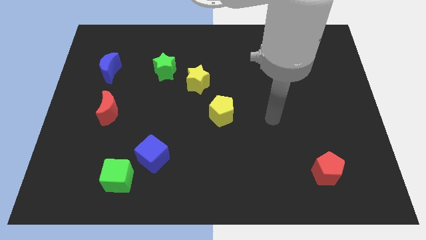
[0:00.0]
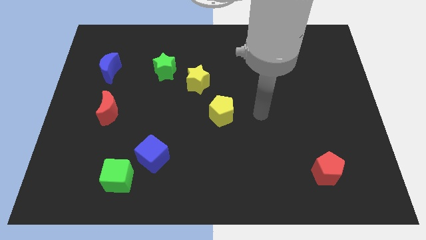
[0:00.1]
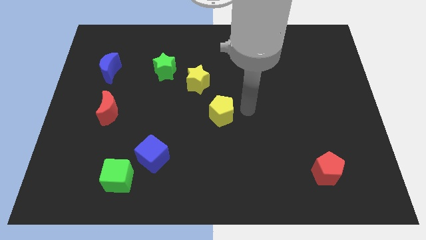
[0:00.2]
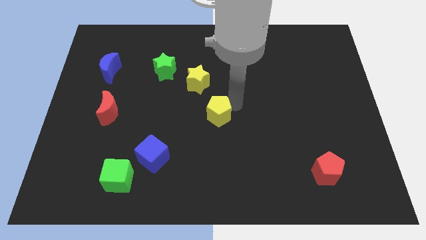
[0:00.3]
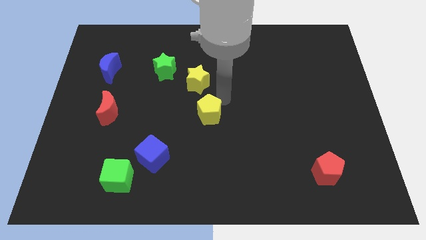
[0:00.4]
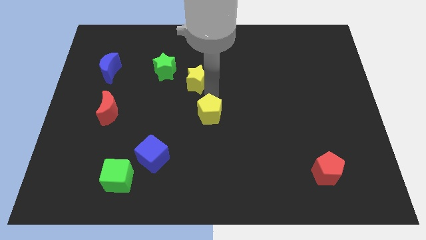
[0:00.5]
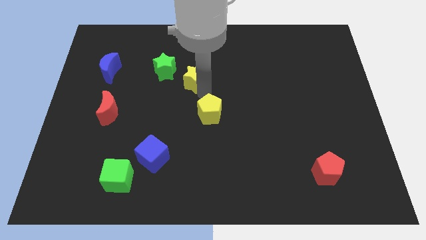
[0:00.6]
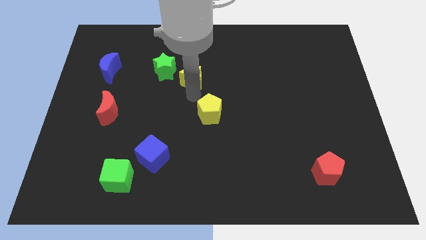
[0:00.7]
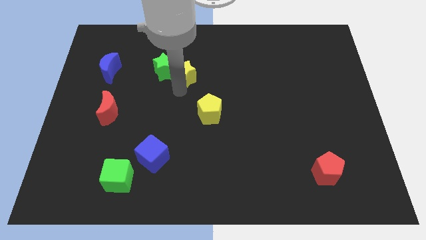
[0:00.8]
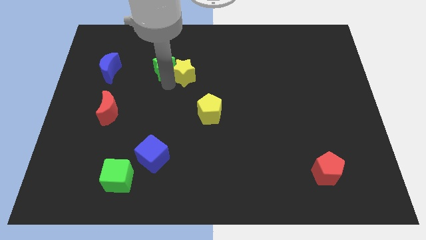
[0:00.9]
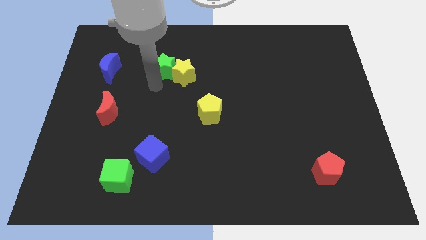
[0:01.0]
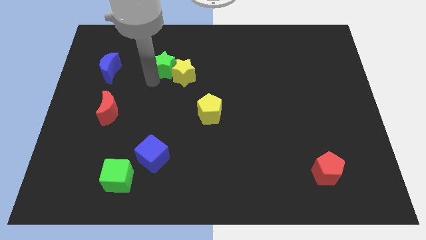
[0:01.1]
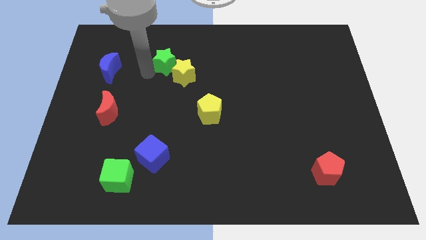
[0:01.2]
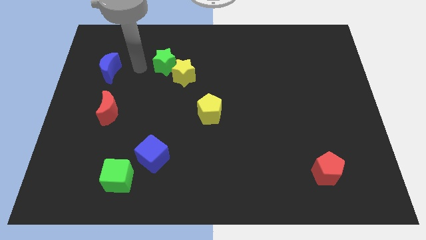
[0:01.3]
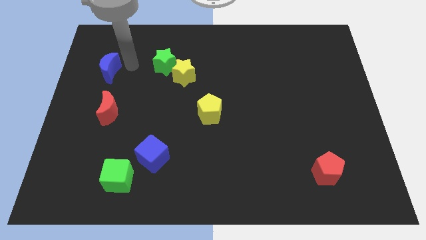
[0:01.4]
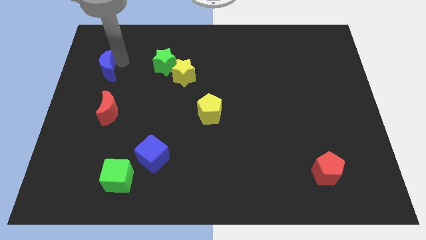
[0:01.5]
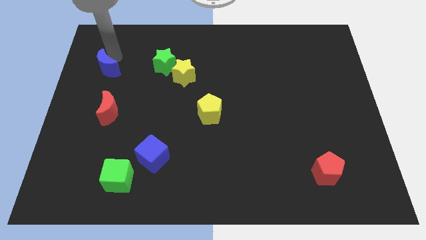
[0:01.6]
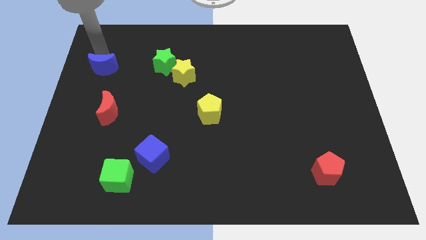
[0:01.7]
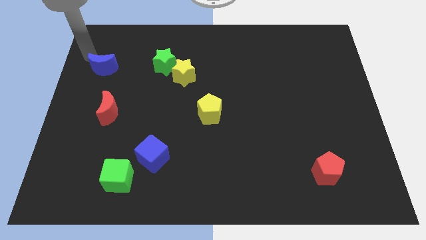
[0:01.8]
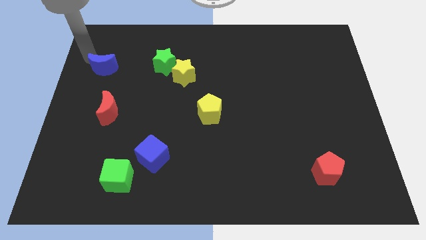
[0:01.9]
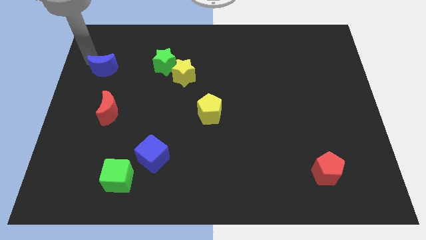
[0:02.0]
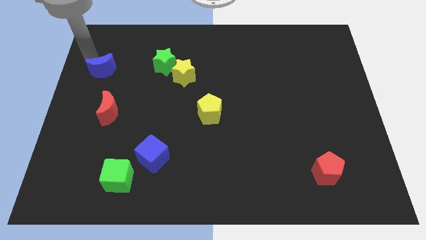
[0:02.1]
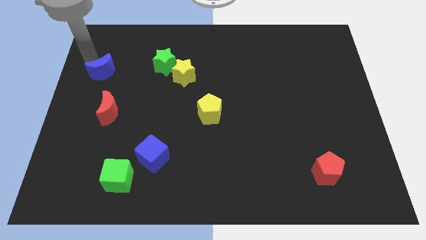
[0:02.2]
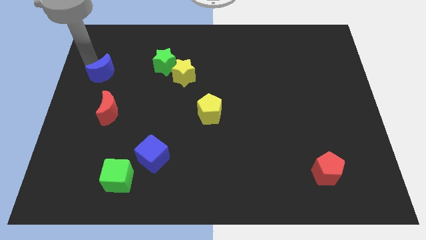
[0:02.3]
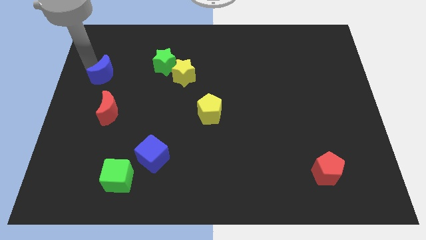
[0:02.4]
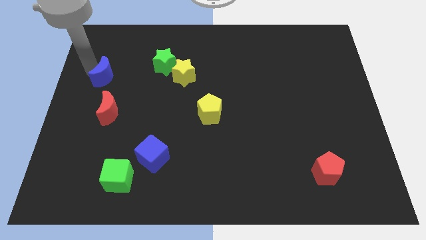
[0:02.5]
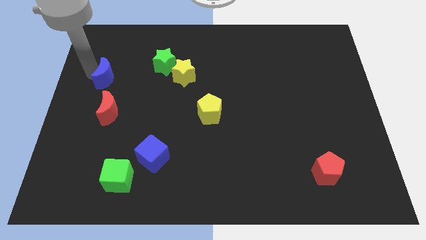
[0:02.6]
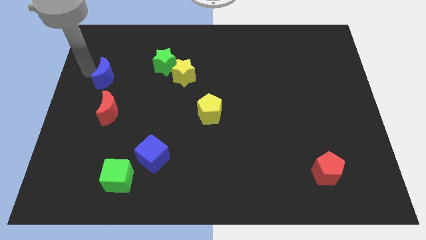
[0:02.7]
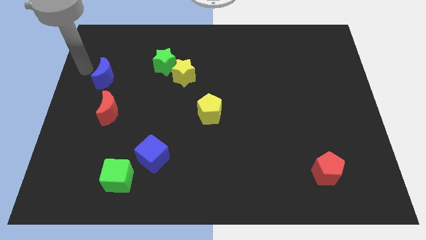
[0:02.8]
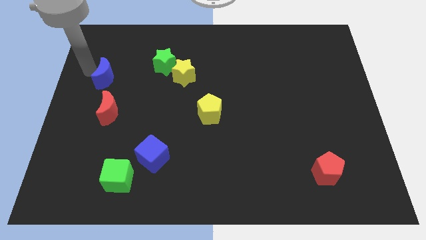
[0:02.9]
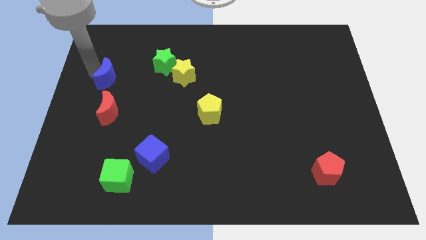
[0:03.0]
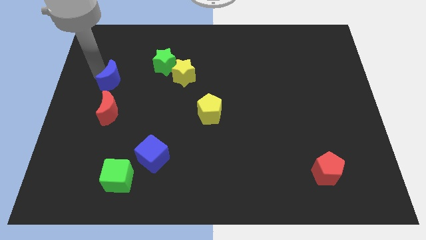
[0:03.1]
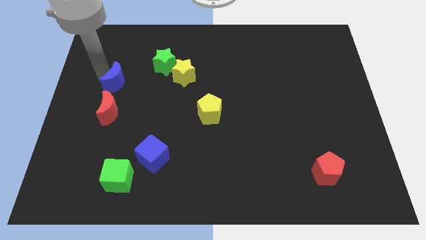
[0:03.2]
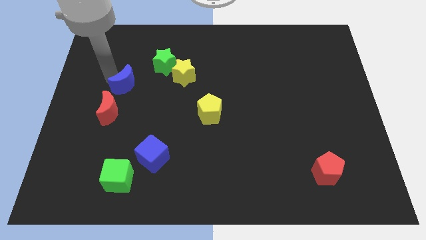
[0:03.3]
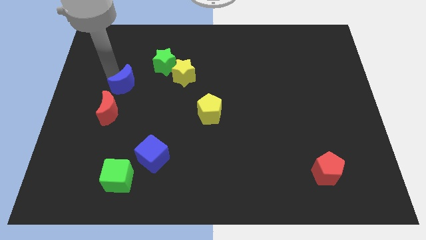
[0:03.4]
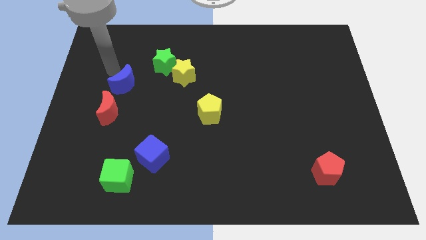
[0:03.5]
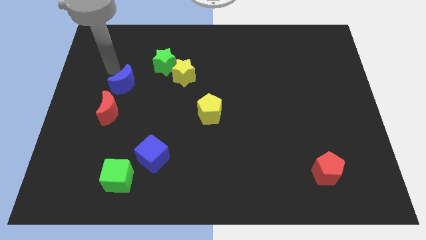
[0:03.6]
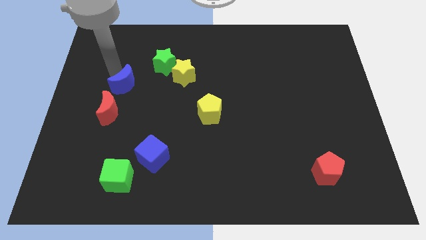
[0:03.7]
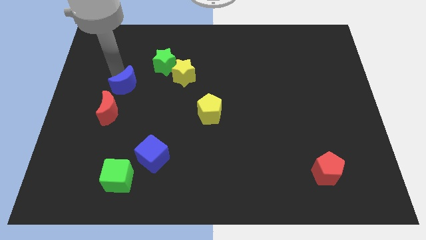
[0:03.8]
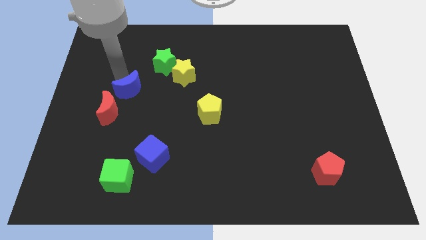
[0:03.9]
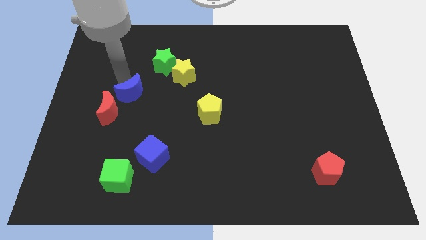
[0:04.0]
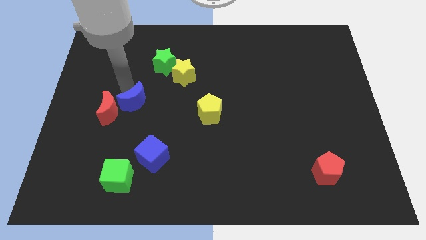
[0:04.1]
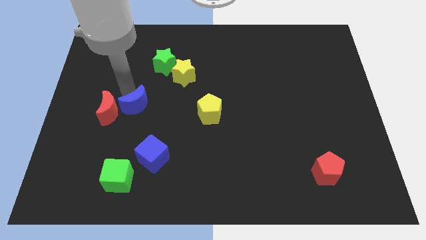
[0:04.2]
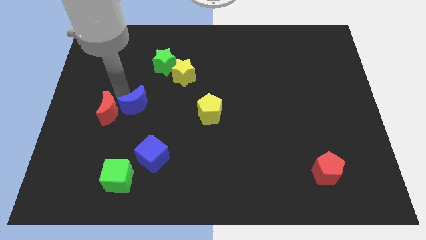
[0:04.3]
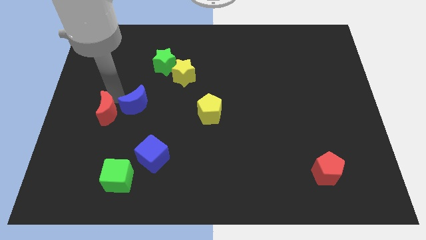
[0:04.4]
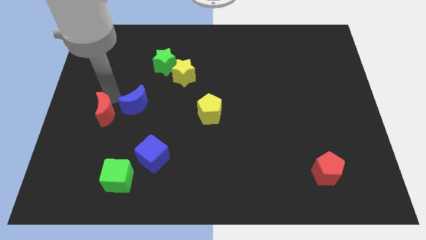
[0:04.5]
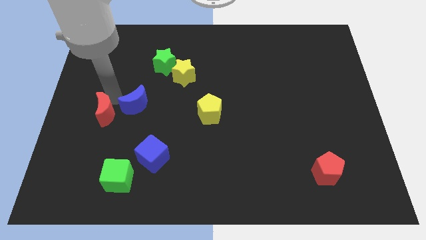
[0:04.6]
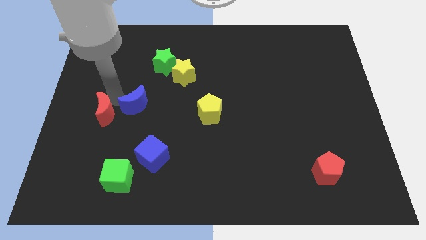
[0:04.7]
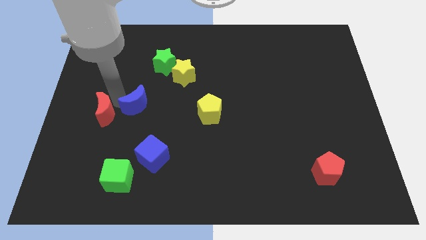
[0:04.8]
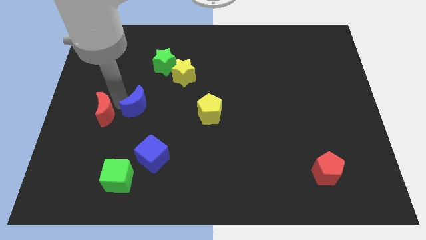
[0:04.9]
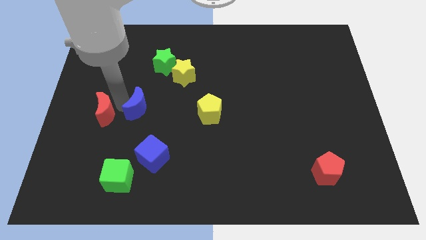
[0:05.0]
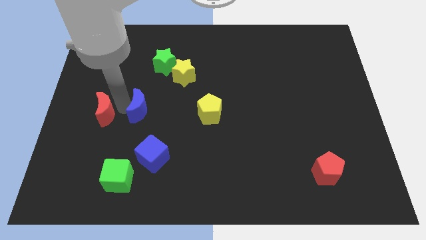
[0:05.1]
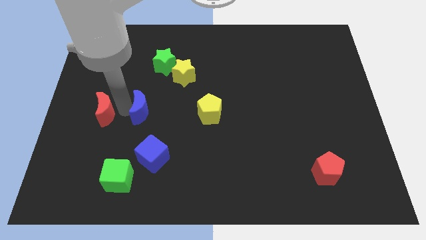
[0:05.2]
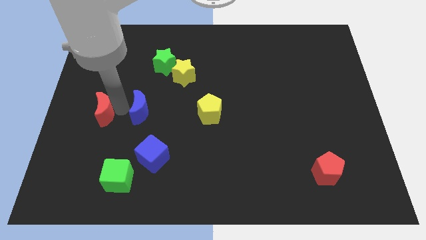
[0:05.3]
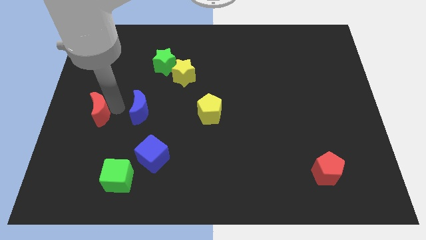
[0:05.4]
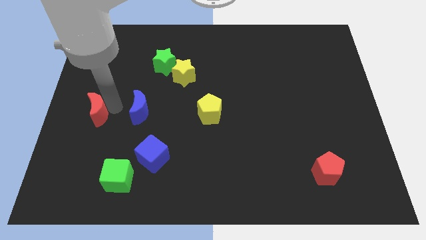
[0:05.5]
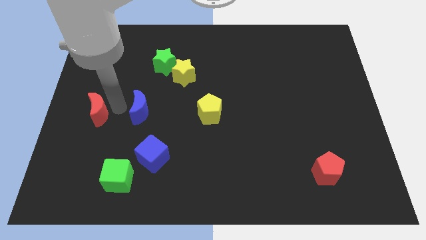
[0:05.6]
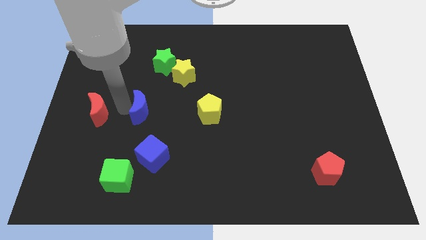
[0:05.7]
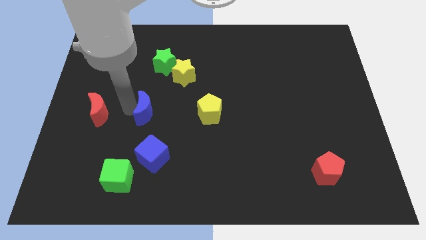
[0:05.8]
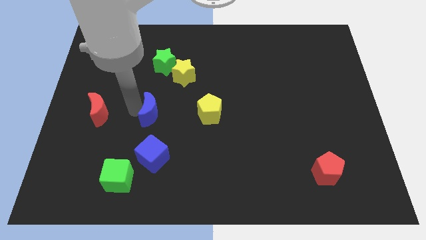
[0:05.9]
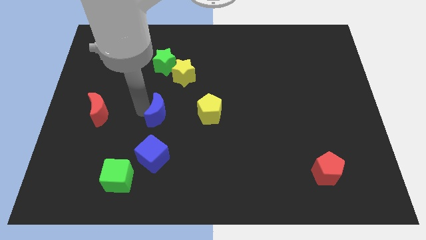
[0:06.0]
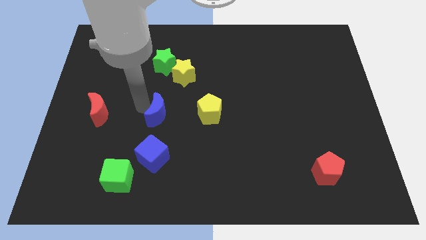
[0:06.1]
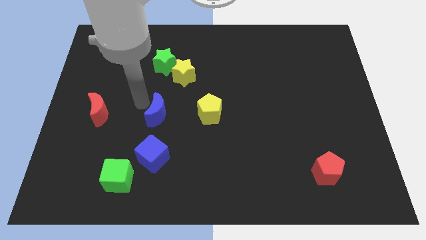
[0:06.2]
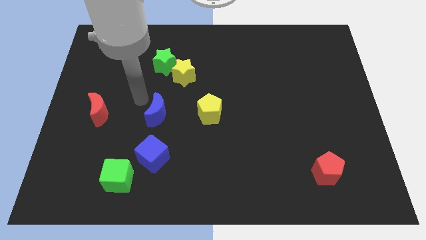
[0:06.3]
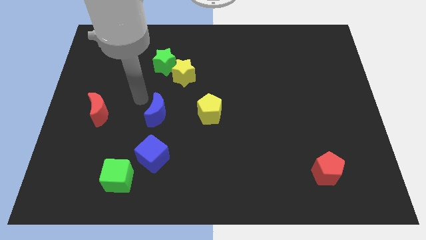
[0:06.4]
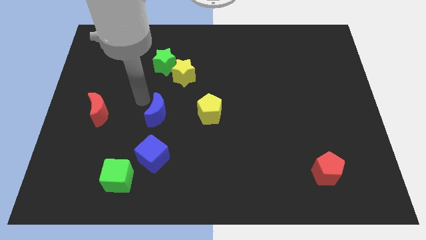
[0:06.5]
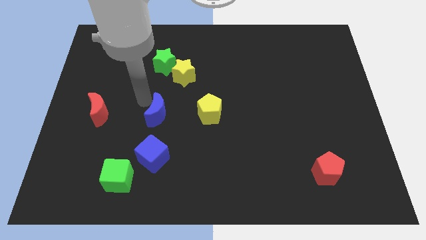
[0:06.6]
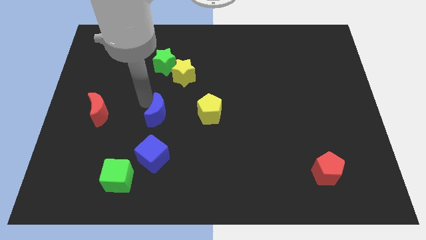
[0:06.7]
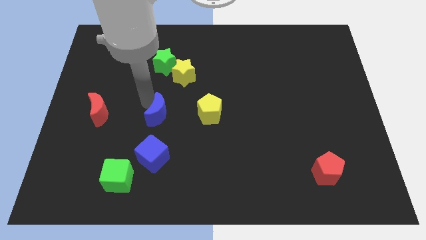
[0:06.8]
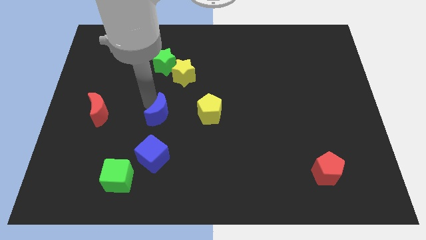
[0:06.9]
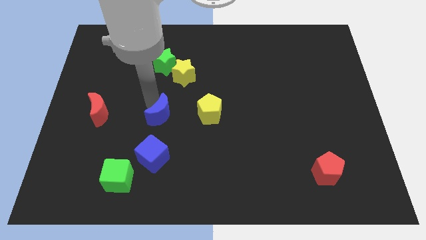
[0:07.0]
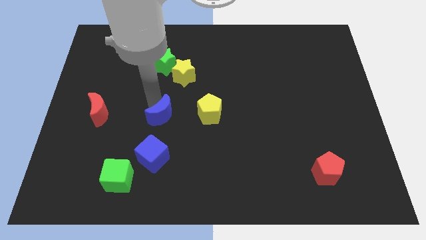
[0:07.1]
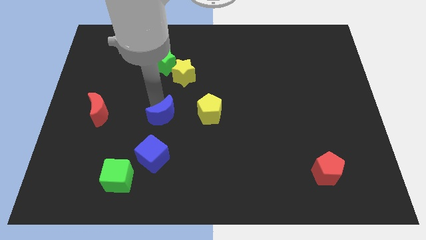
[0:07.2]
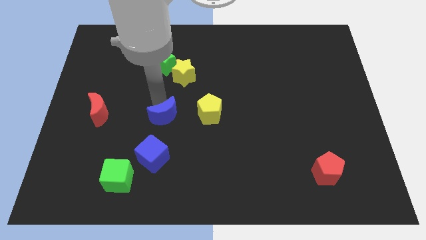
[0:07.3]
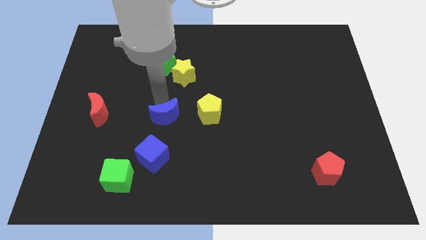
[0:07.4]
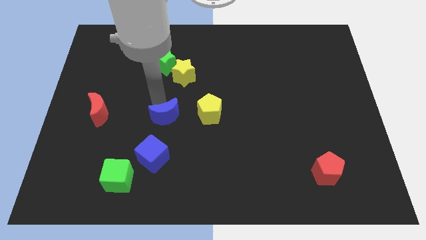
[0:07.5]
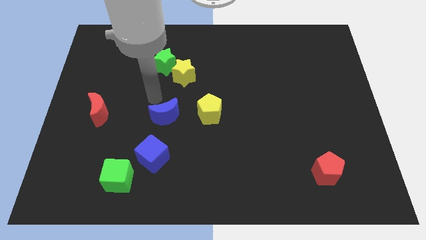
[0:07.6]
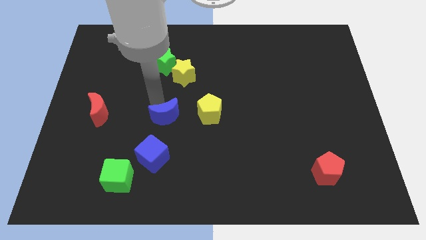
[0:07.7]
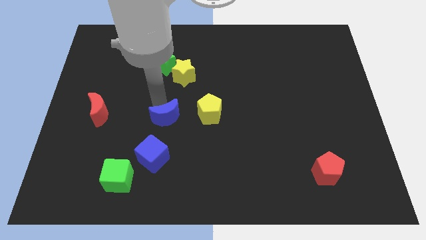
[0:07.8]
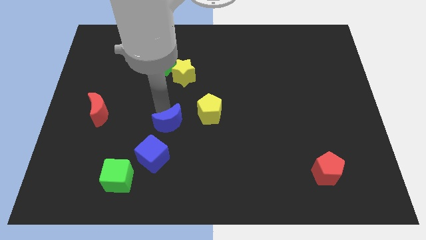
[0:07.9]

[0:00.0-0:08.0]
put the blue moon to the top right of the blue cube
